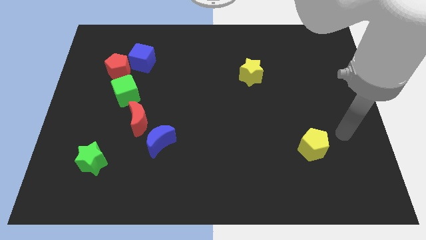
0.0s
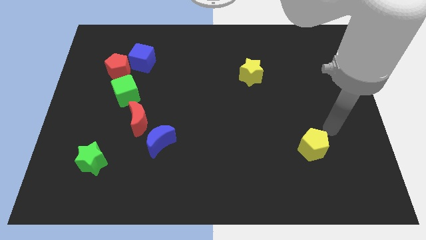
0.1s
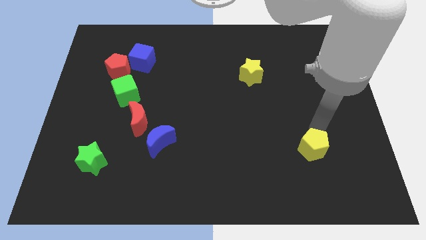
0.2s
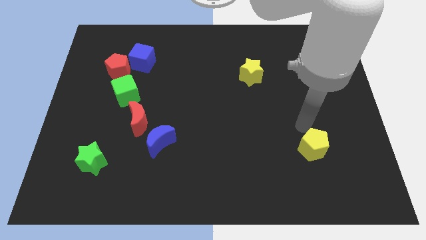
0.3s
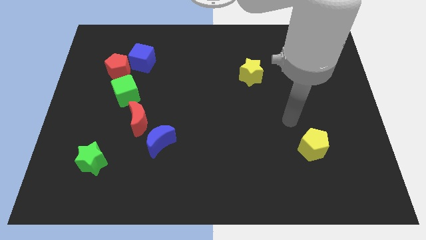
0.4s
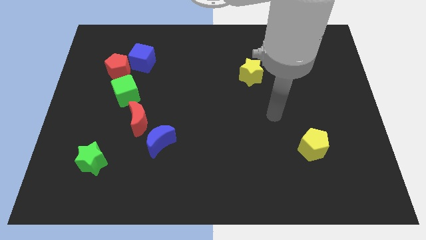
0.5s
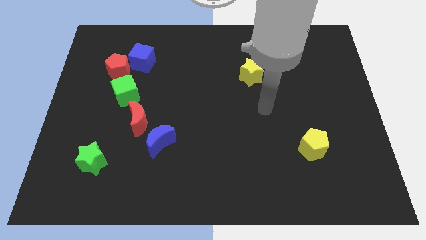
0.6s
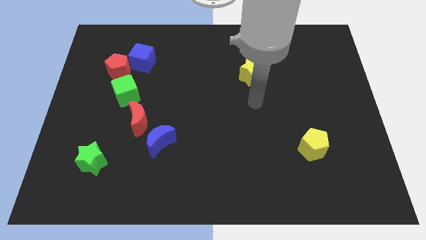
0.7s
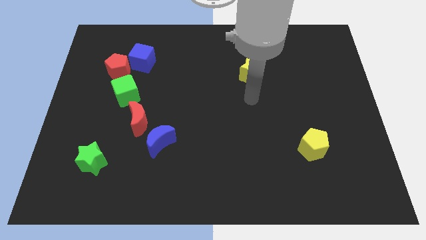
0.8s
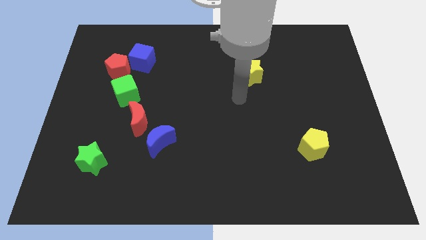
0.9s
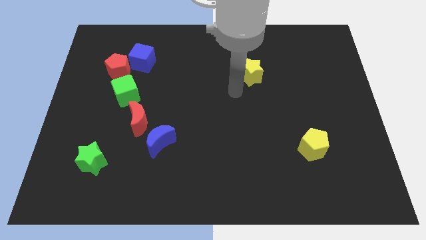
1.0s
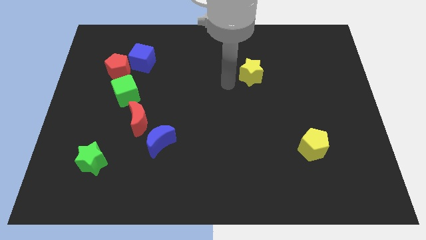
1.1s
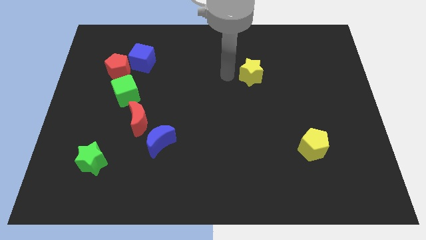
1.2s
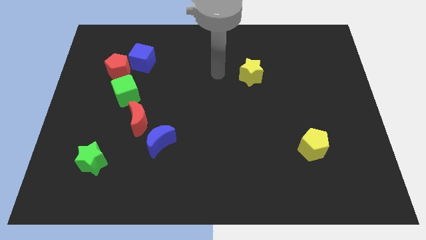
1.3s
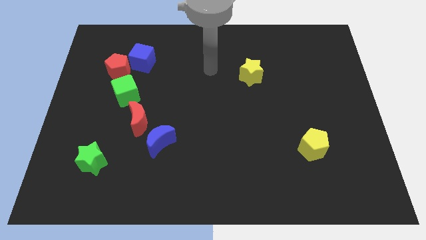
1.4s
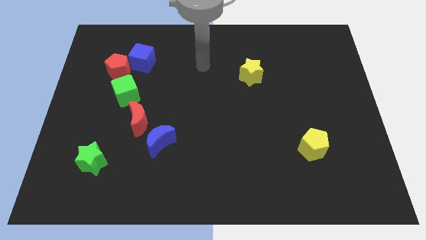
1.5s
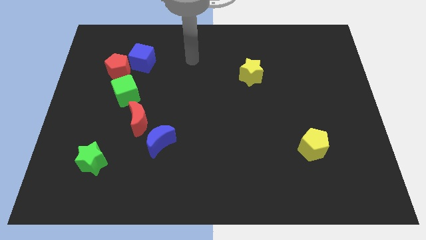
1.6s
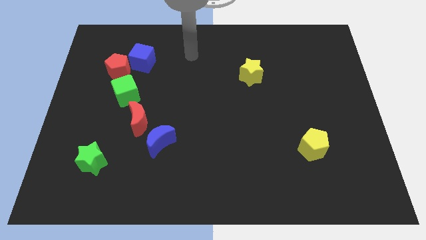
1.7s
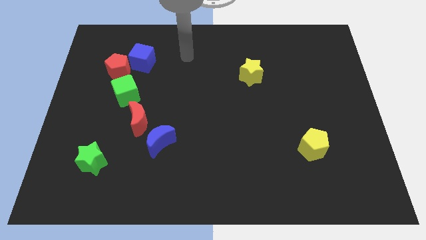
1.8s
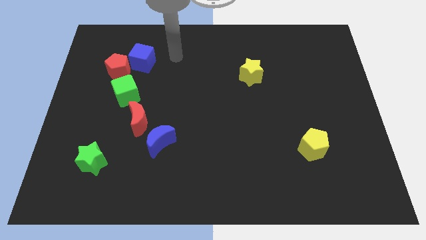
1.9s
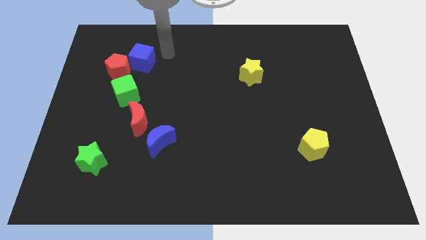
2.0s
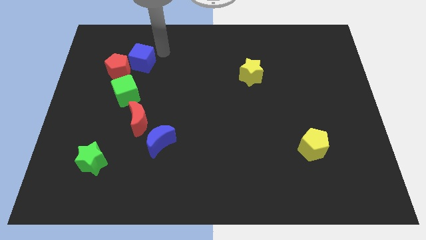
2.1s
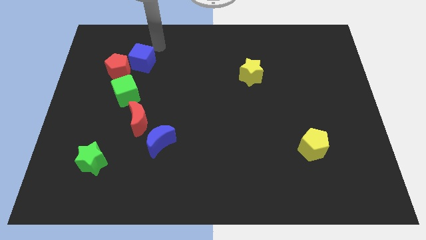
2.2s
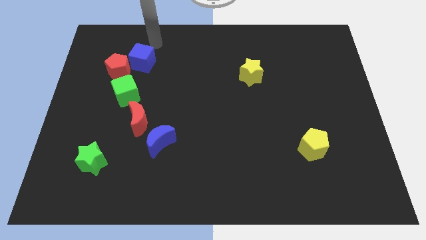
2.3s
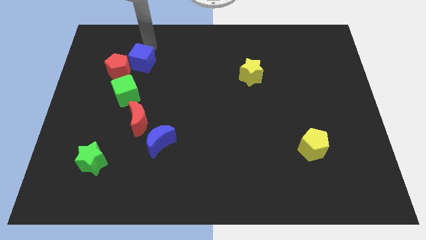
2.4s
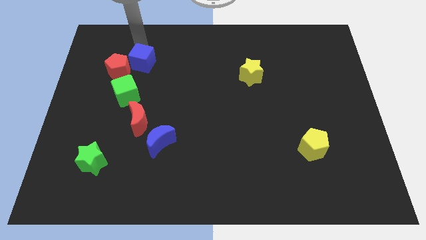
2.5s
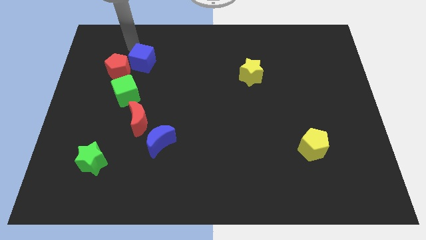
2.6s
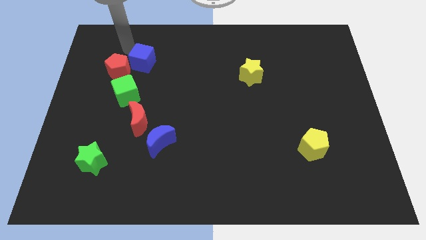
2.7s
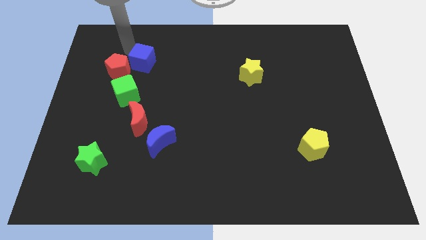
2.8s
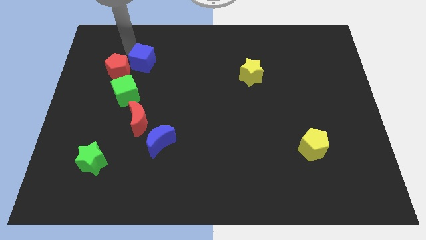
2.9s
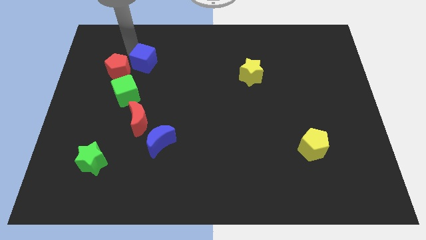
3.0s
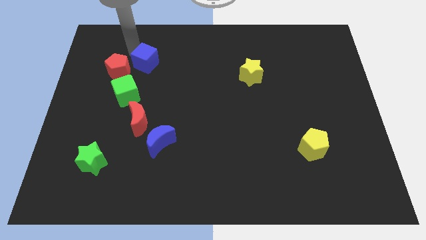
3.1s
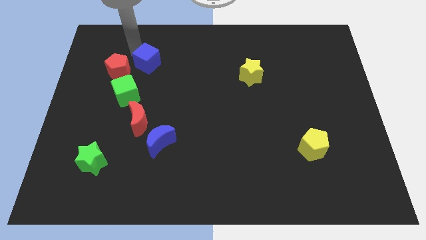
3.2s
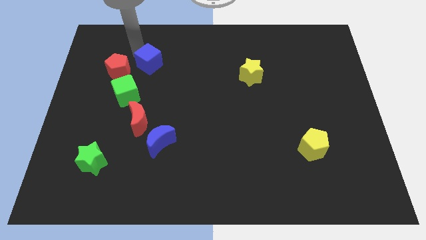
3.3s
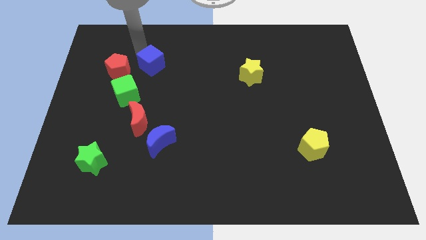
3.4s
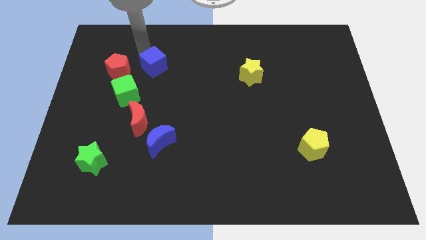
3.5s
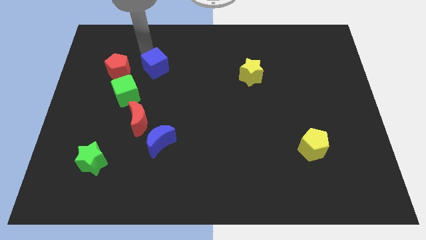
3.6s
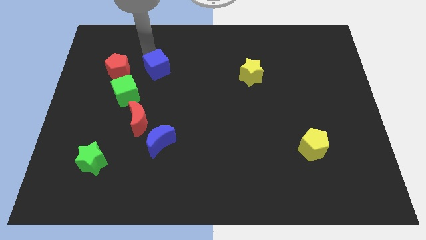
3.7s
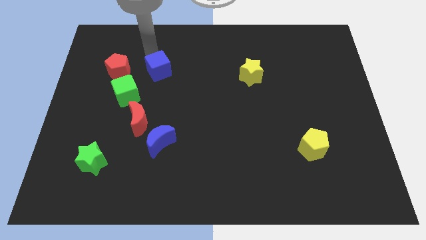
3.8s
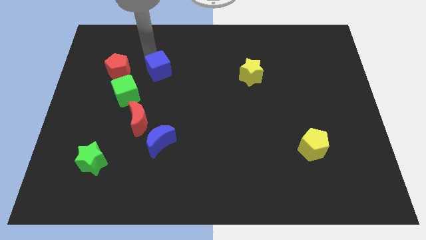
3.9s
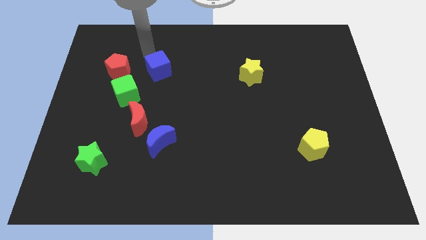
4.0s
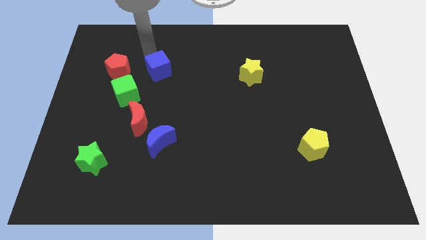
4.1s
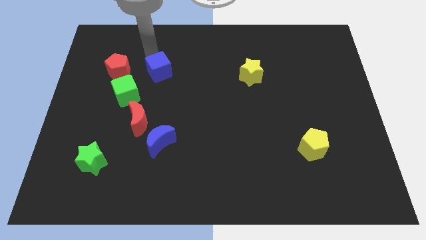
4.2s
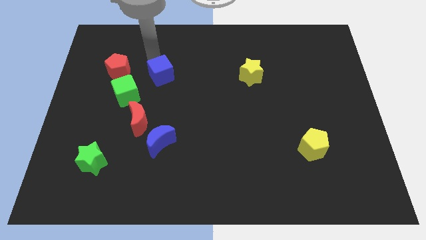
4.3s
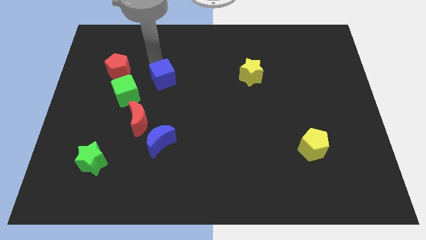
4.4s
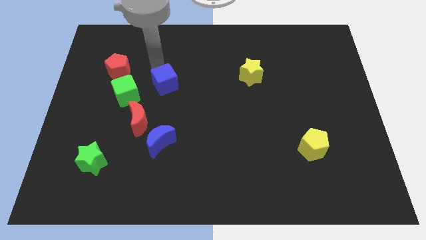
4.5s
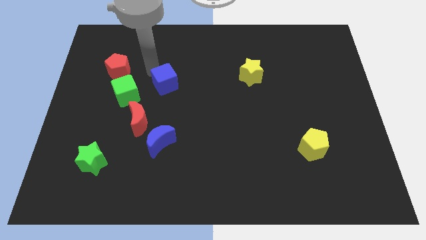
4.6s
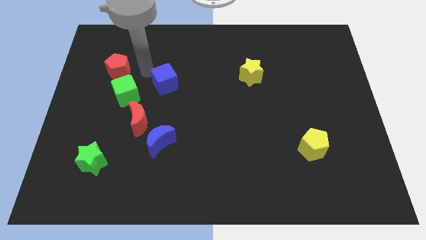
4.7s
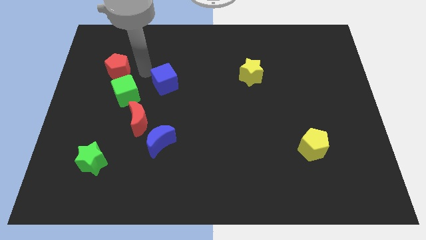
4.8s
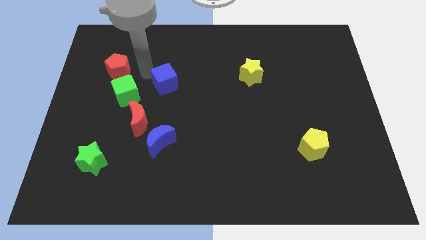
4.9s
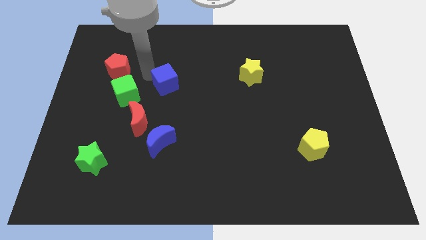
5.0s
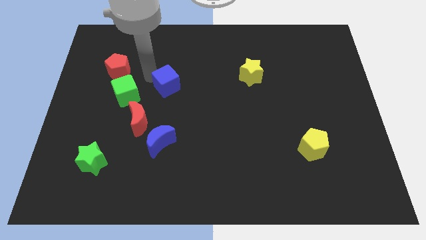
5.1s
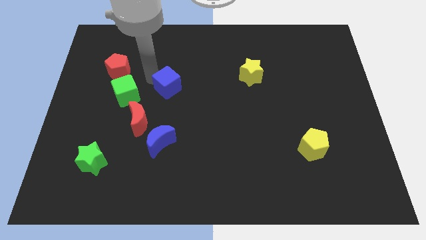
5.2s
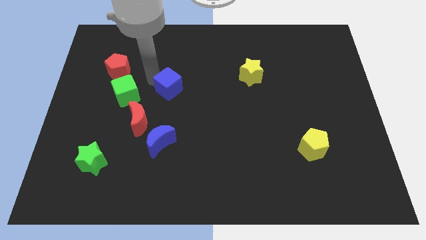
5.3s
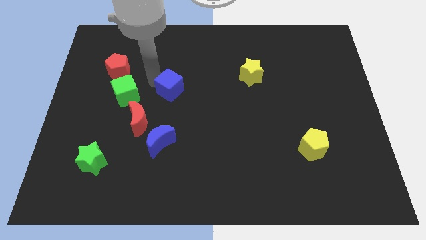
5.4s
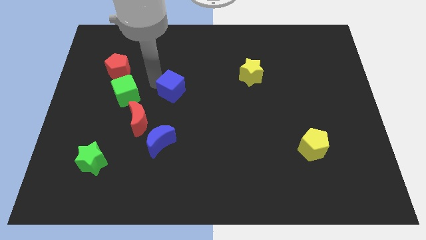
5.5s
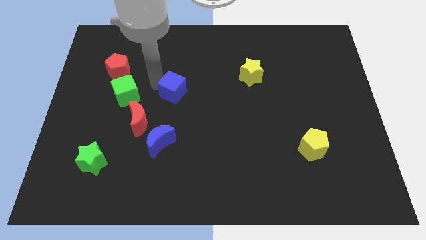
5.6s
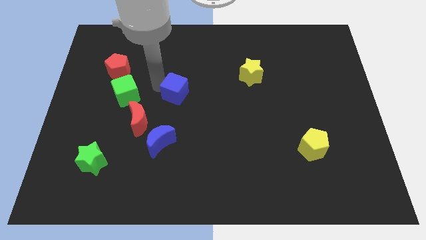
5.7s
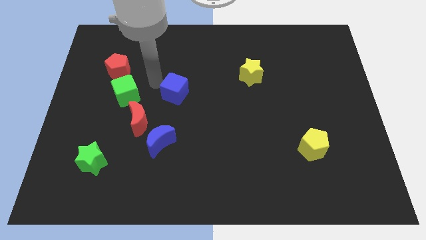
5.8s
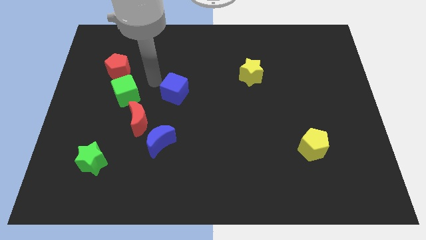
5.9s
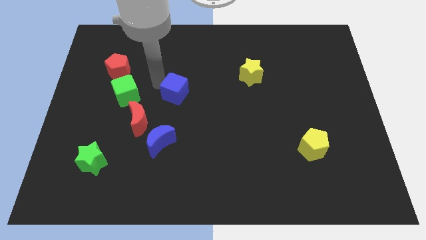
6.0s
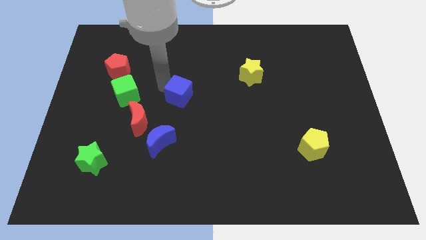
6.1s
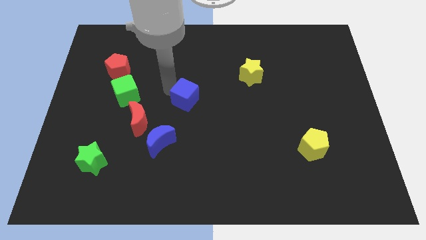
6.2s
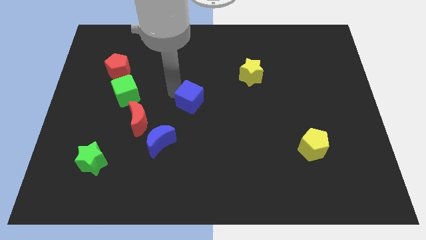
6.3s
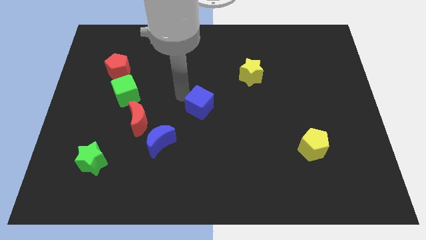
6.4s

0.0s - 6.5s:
push the blue cube downwards and then right

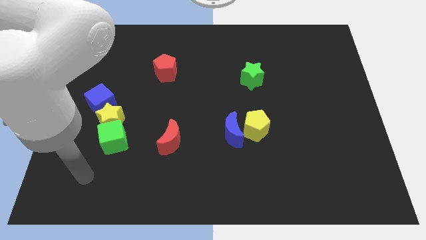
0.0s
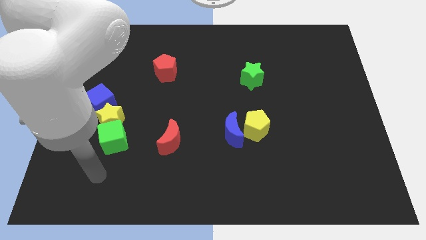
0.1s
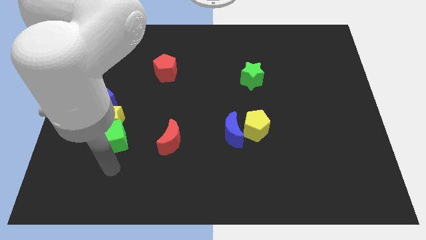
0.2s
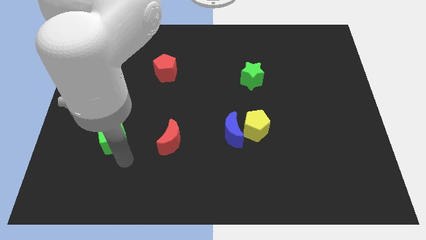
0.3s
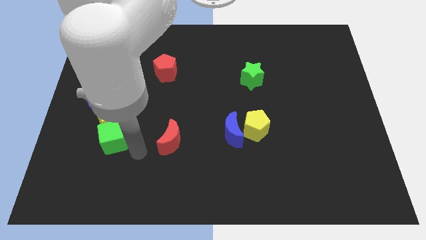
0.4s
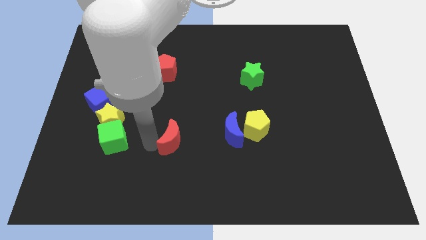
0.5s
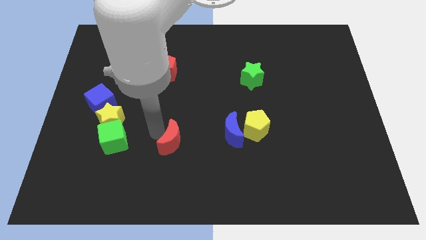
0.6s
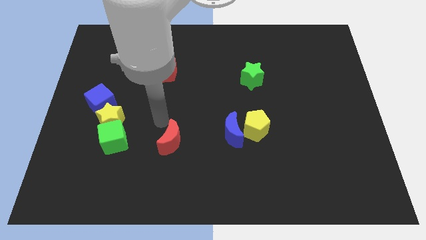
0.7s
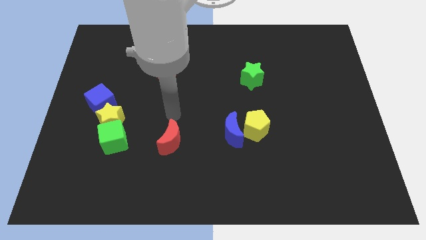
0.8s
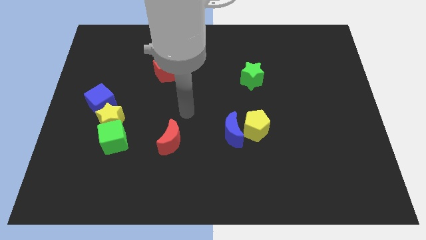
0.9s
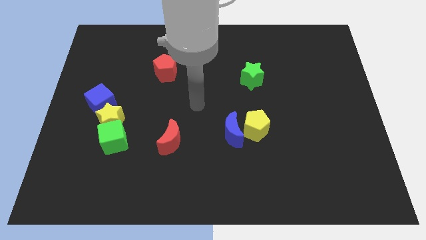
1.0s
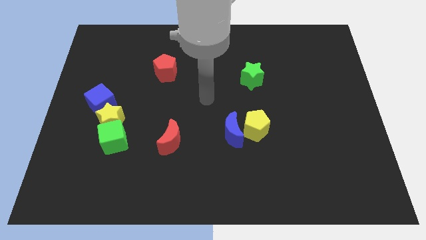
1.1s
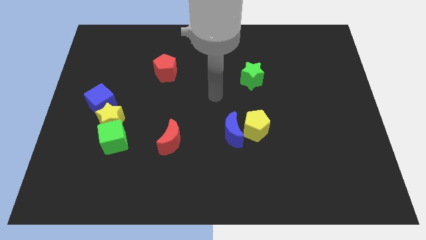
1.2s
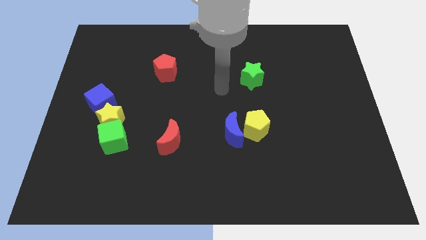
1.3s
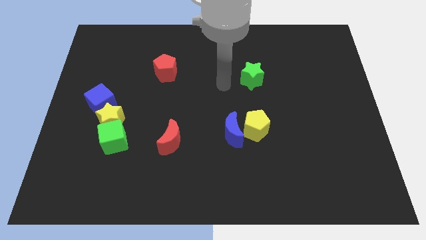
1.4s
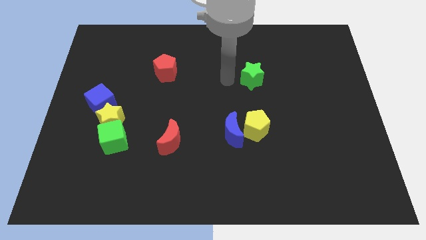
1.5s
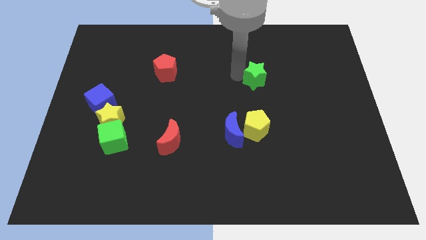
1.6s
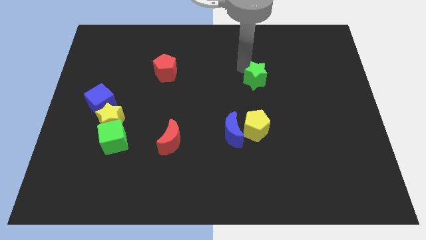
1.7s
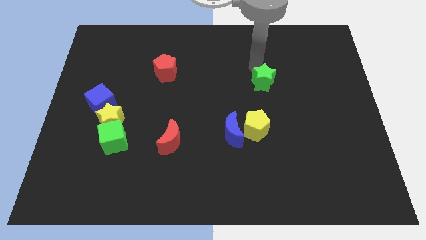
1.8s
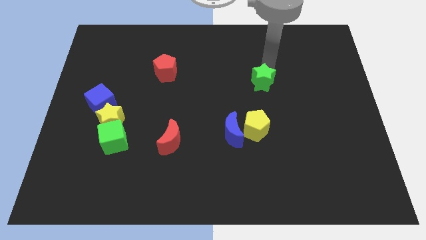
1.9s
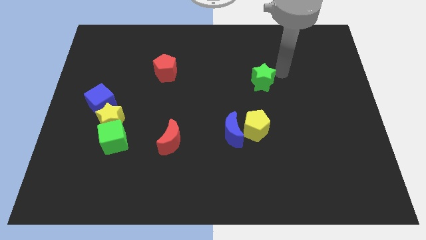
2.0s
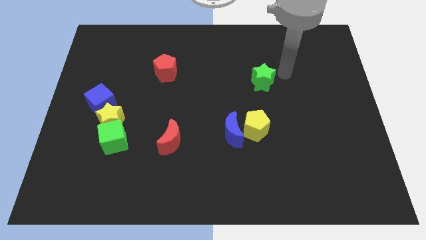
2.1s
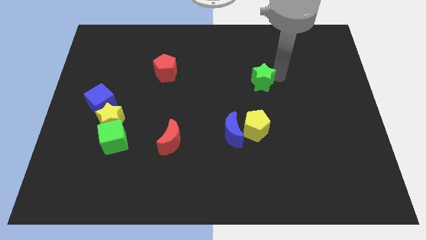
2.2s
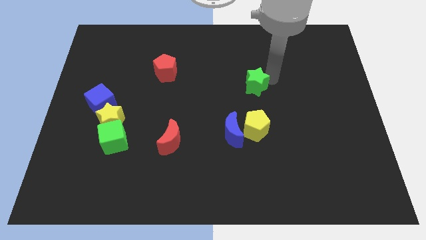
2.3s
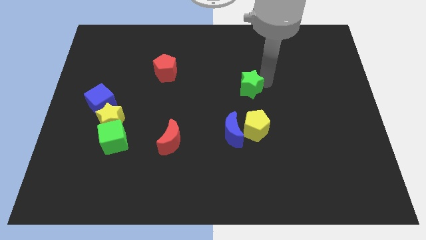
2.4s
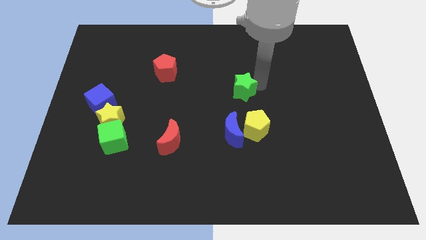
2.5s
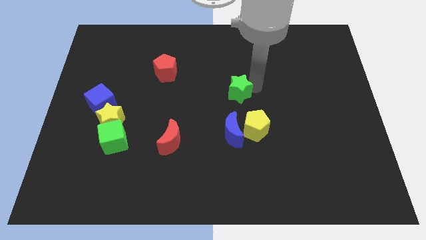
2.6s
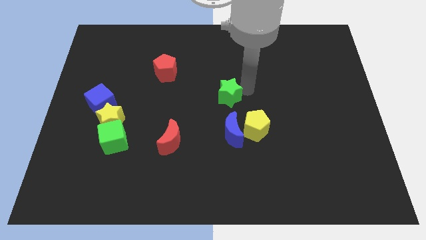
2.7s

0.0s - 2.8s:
slide the green star downwards and then to the left a little bit
